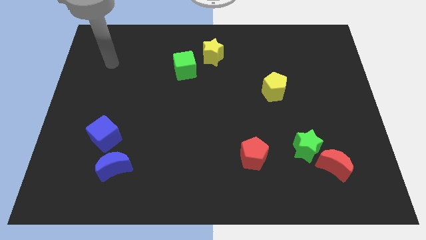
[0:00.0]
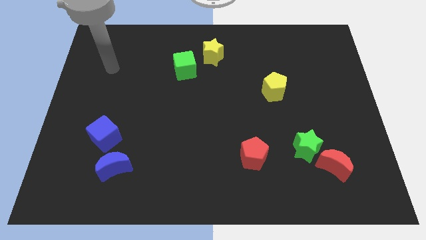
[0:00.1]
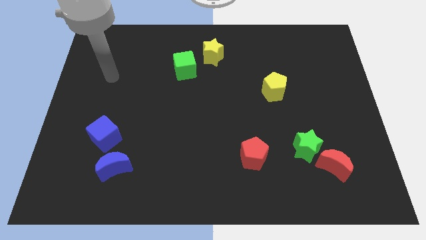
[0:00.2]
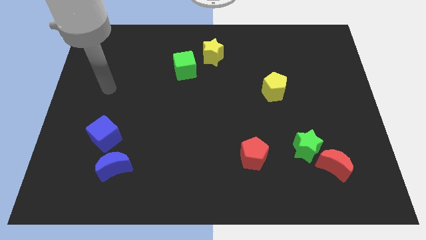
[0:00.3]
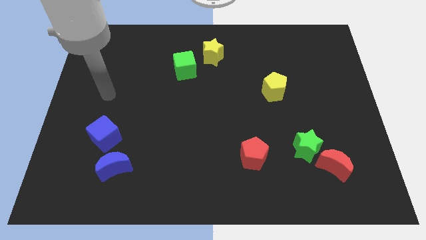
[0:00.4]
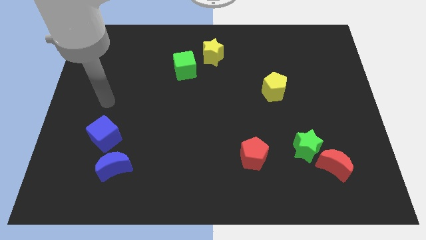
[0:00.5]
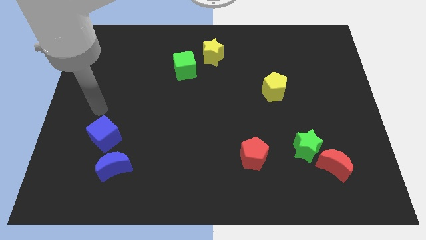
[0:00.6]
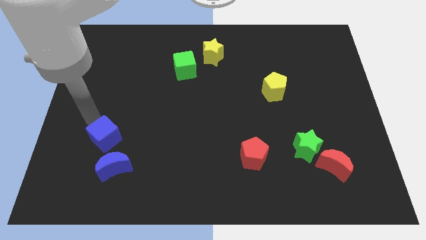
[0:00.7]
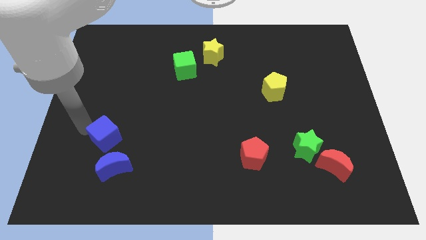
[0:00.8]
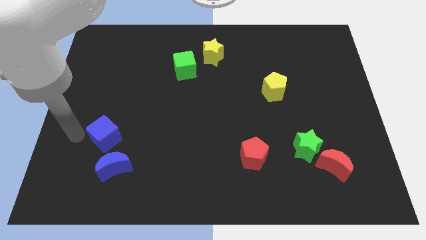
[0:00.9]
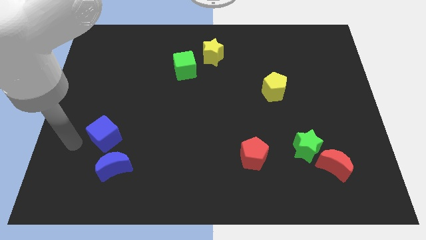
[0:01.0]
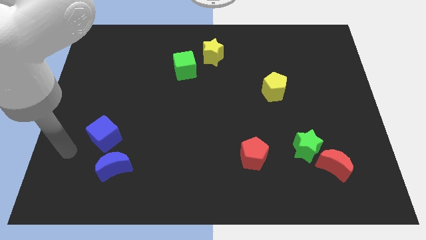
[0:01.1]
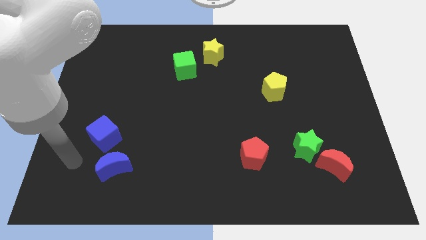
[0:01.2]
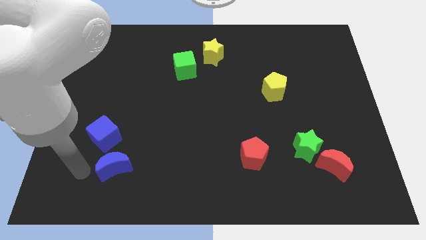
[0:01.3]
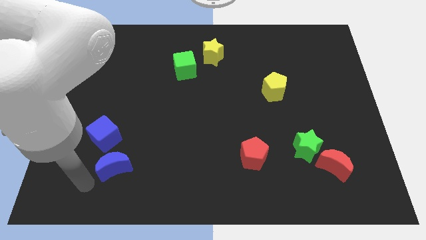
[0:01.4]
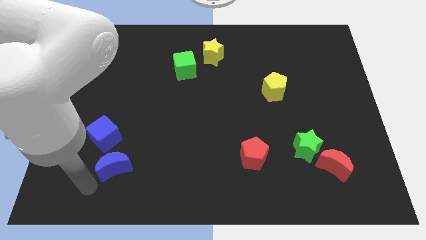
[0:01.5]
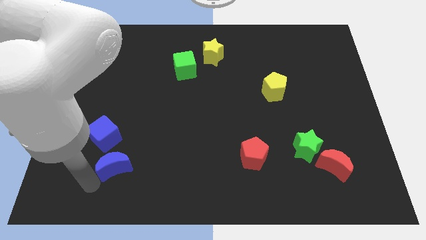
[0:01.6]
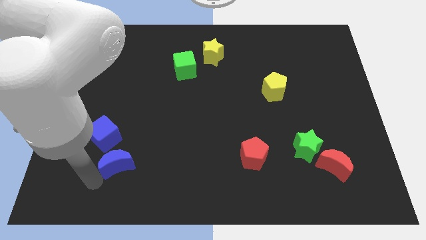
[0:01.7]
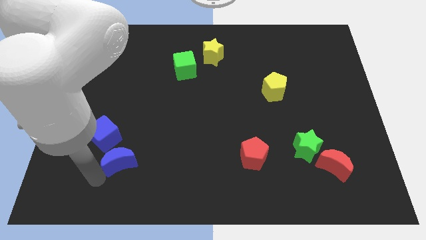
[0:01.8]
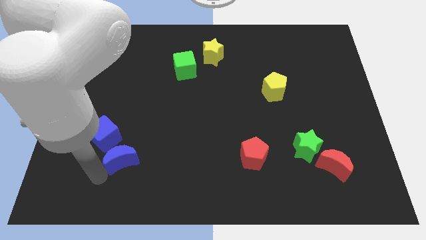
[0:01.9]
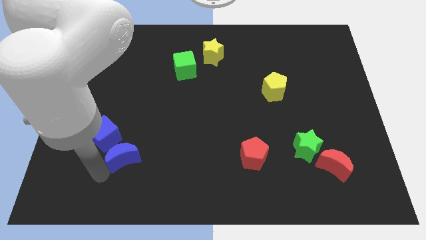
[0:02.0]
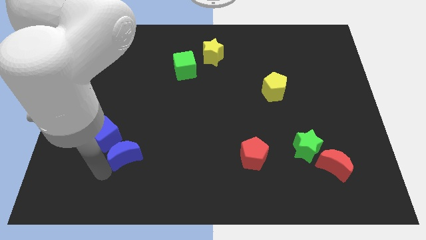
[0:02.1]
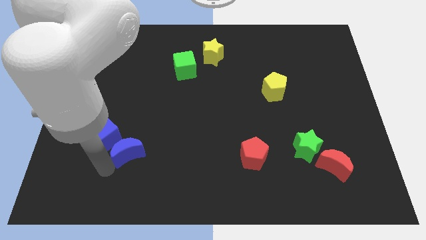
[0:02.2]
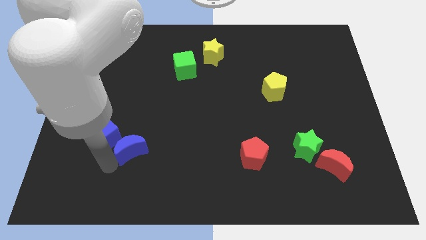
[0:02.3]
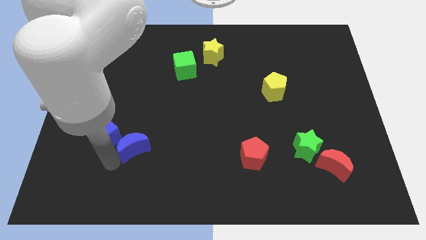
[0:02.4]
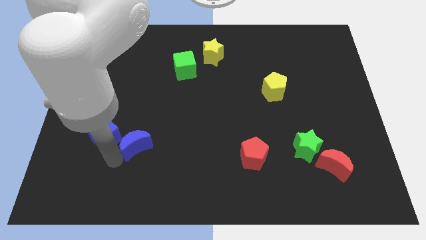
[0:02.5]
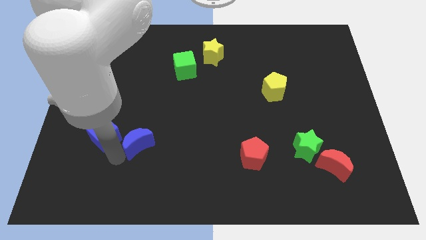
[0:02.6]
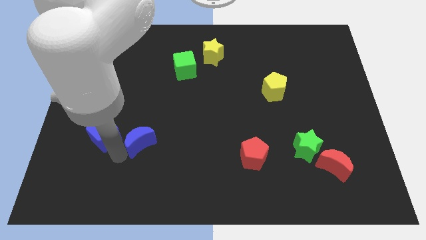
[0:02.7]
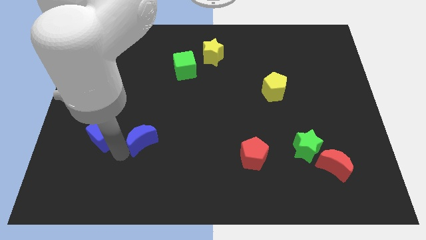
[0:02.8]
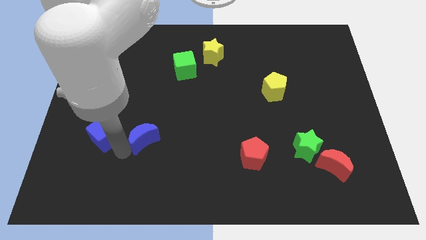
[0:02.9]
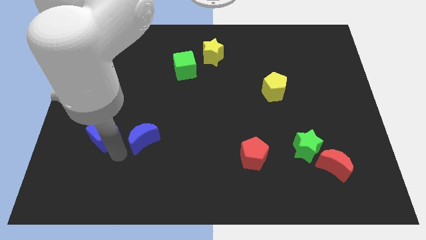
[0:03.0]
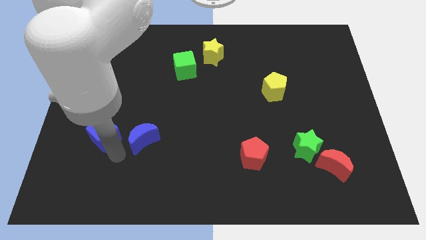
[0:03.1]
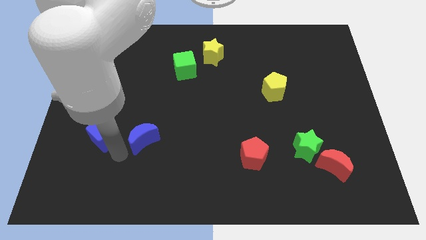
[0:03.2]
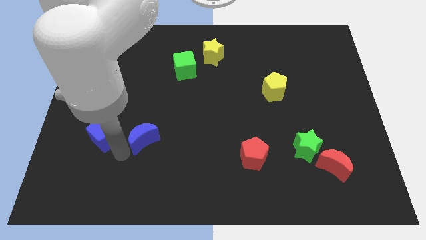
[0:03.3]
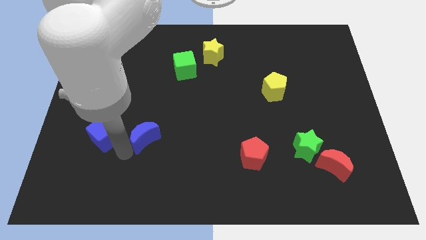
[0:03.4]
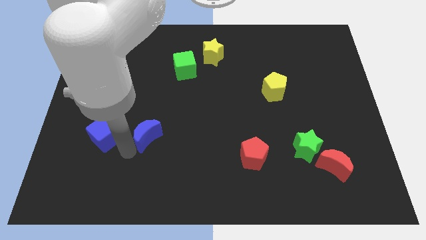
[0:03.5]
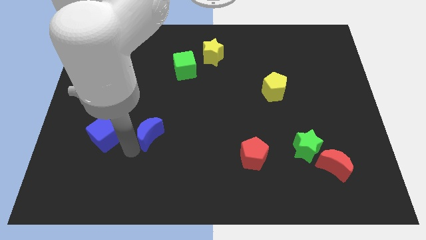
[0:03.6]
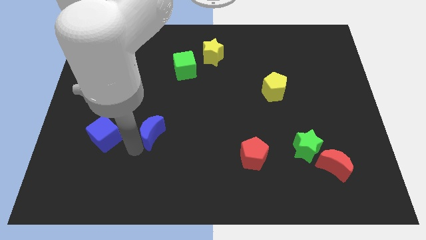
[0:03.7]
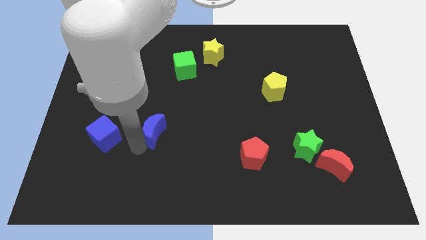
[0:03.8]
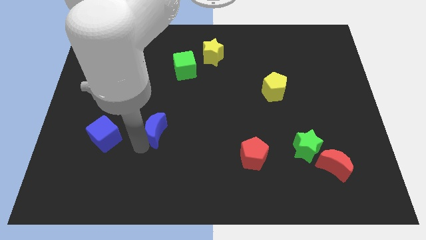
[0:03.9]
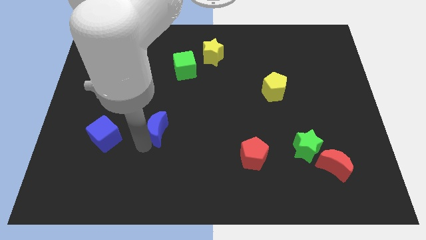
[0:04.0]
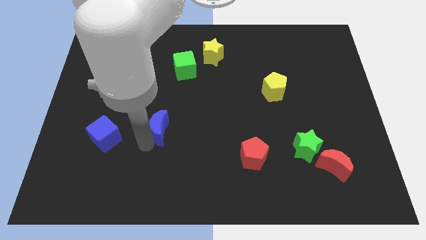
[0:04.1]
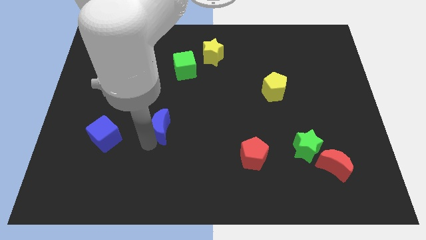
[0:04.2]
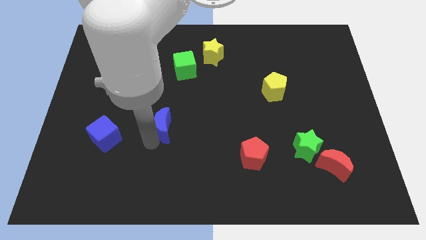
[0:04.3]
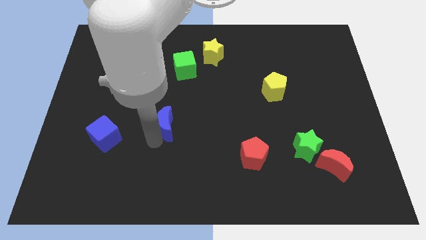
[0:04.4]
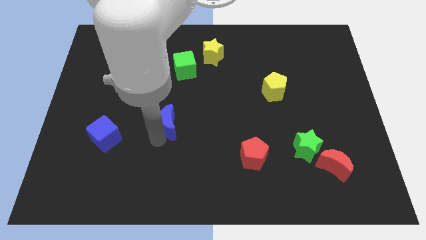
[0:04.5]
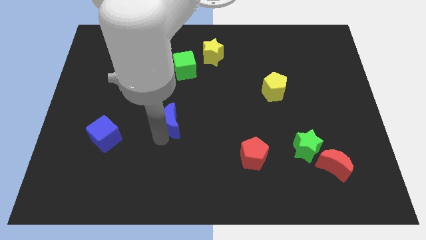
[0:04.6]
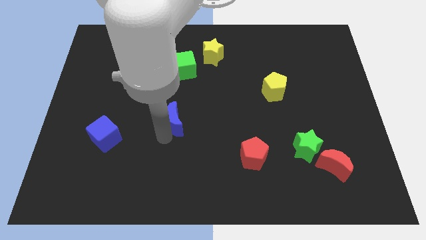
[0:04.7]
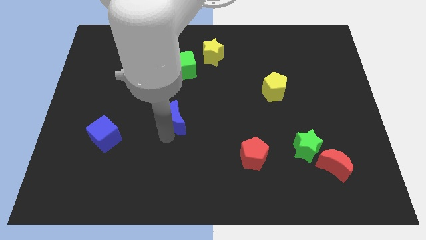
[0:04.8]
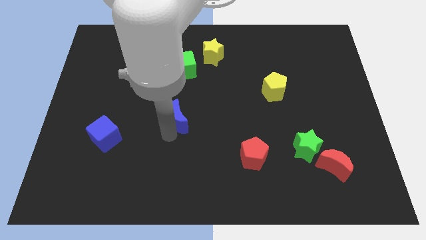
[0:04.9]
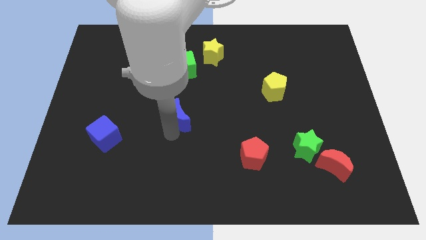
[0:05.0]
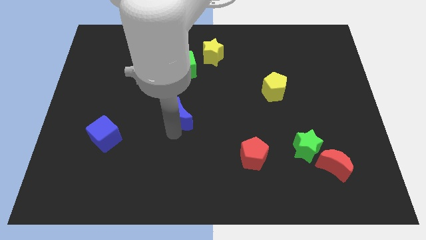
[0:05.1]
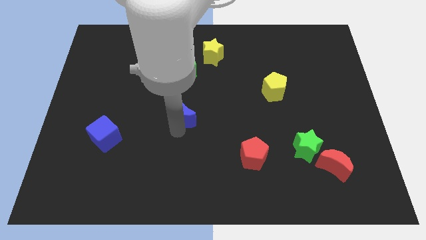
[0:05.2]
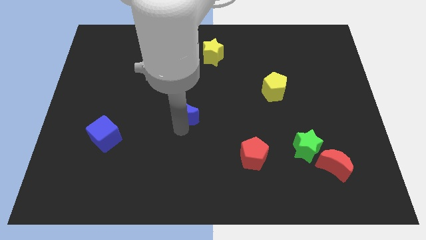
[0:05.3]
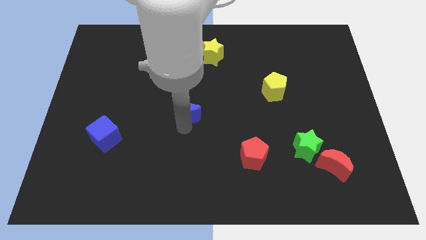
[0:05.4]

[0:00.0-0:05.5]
move the blue moon upwards and to the right

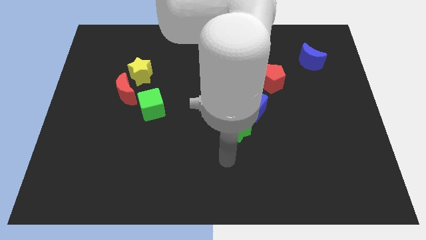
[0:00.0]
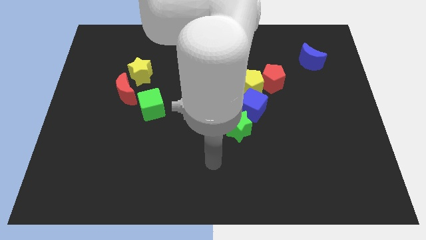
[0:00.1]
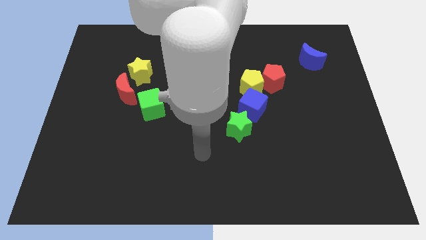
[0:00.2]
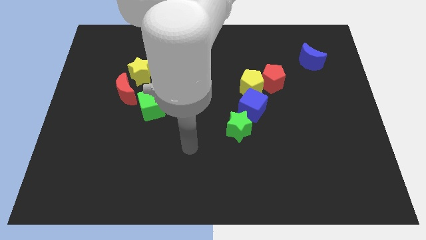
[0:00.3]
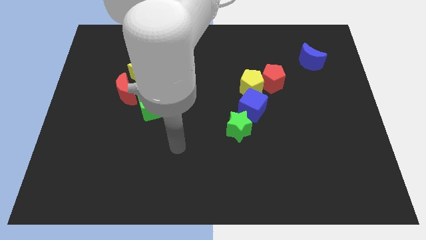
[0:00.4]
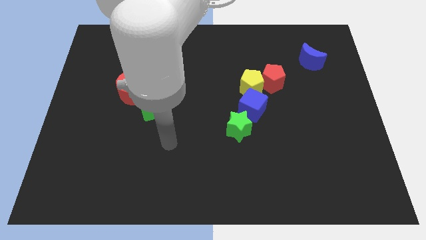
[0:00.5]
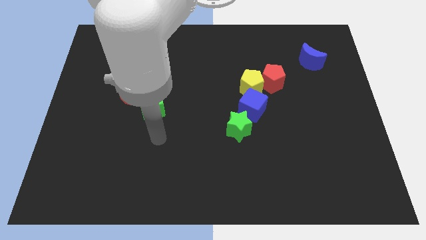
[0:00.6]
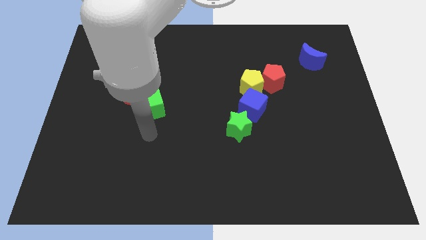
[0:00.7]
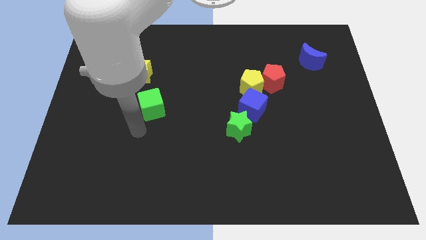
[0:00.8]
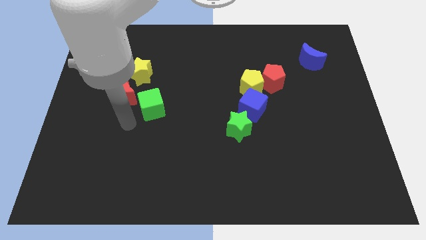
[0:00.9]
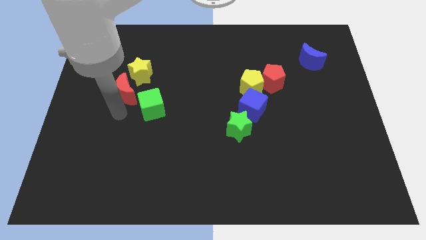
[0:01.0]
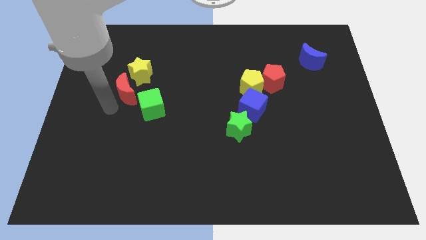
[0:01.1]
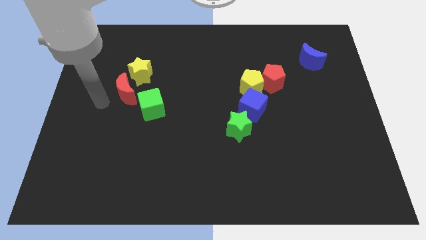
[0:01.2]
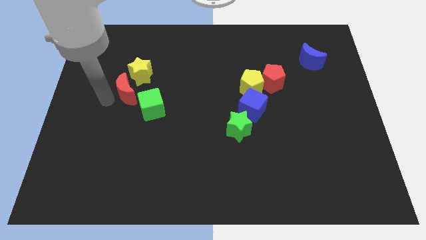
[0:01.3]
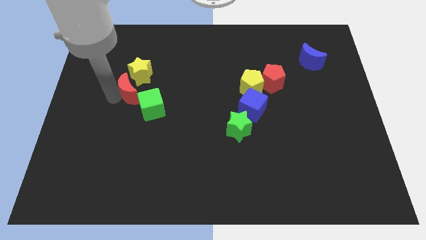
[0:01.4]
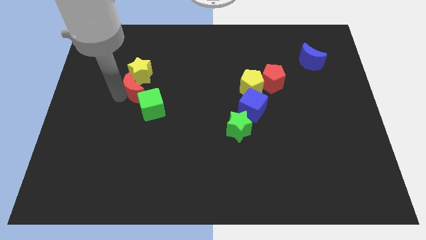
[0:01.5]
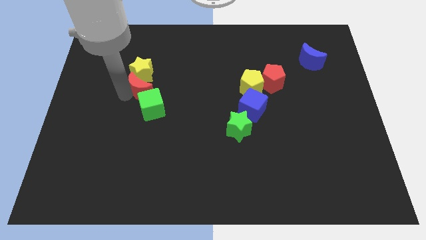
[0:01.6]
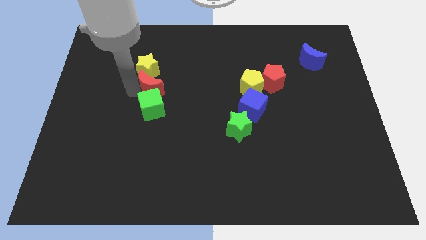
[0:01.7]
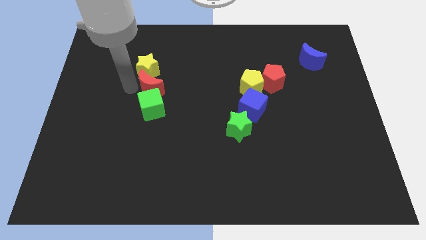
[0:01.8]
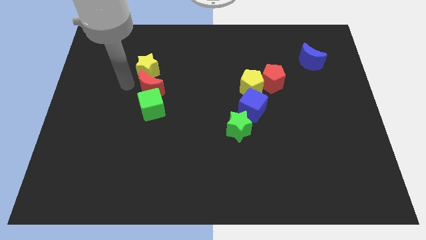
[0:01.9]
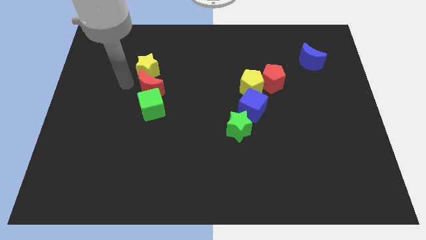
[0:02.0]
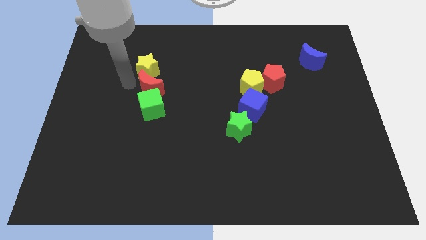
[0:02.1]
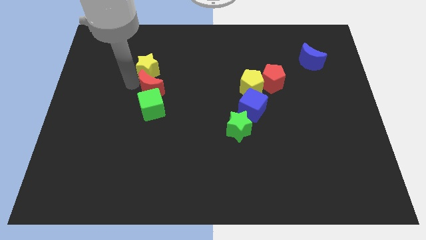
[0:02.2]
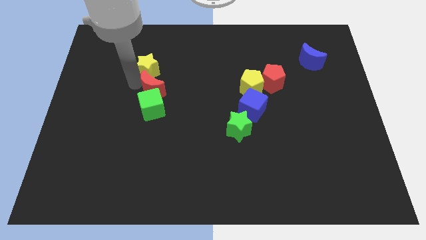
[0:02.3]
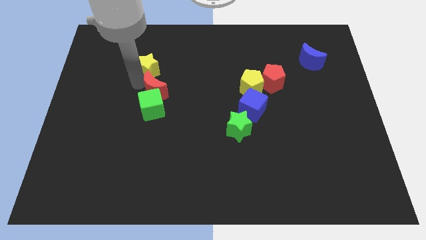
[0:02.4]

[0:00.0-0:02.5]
slide the red moon to the right a bit
